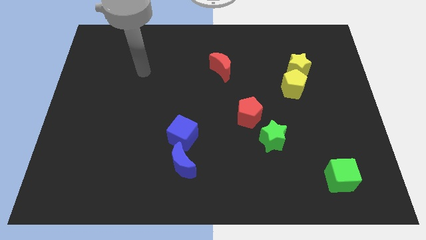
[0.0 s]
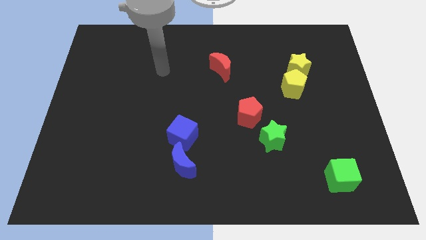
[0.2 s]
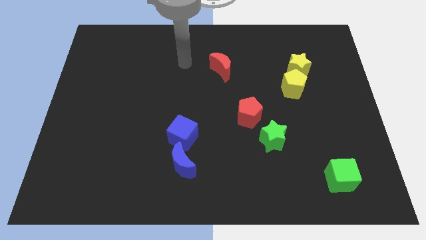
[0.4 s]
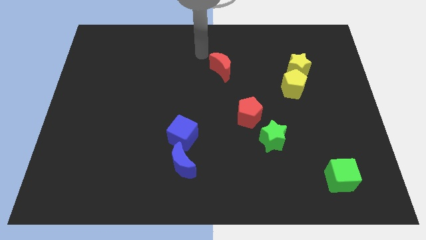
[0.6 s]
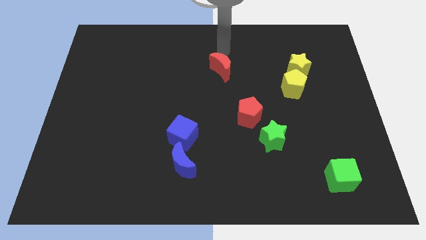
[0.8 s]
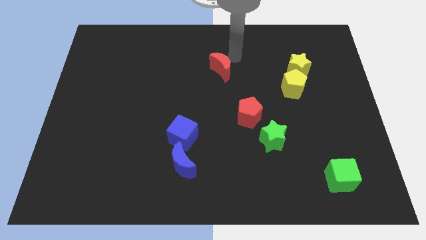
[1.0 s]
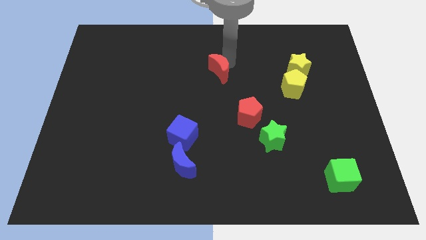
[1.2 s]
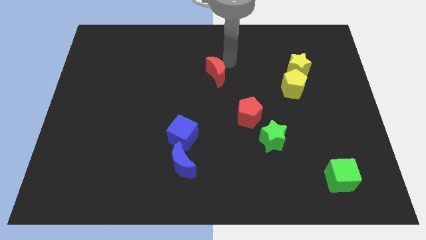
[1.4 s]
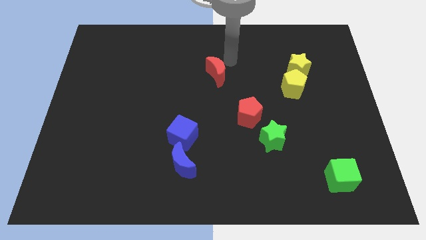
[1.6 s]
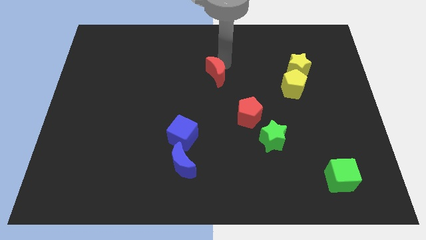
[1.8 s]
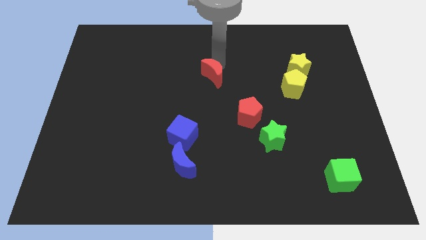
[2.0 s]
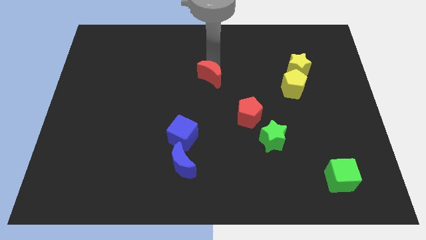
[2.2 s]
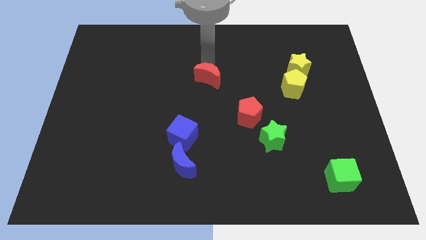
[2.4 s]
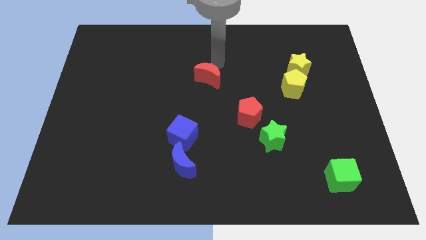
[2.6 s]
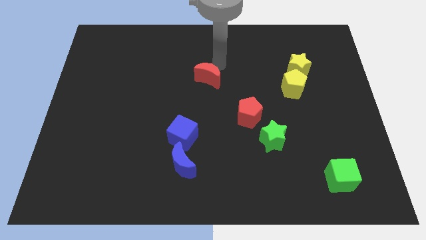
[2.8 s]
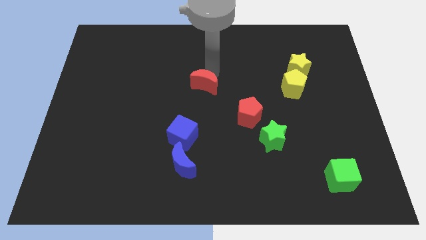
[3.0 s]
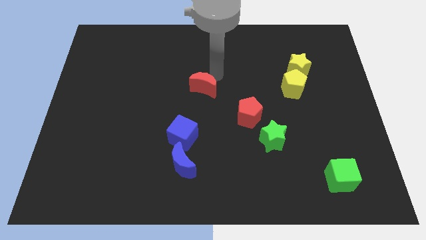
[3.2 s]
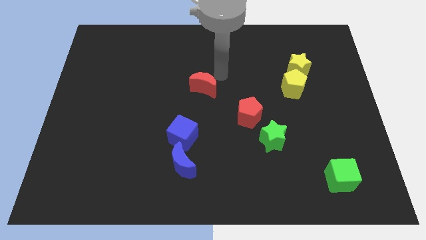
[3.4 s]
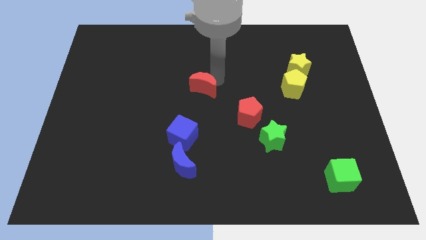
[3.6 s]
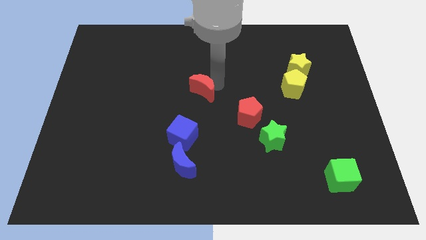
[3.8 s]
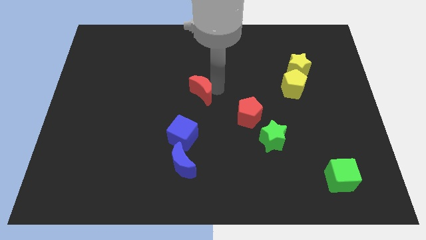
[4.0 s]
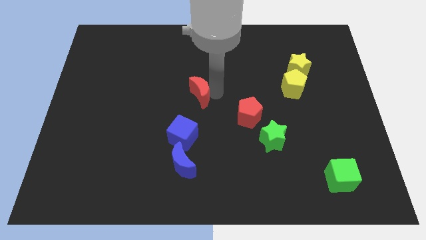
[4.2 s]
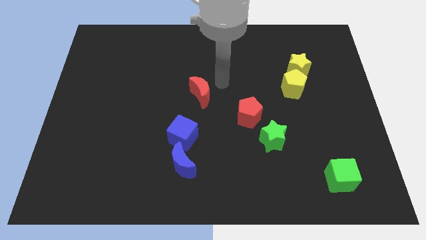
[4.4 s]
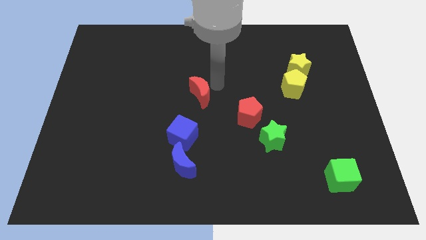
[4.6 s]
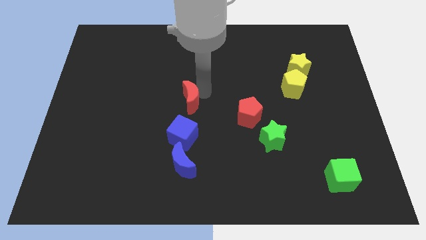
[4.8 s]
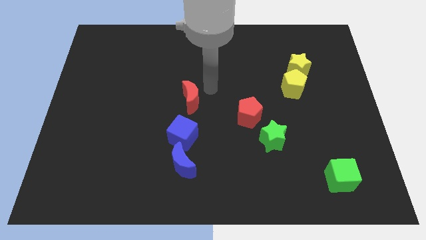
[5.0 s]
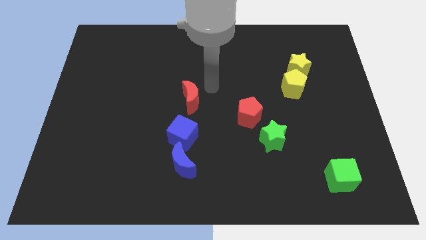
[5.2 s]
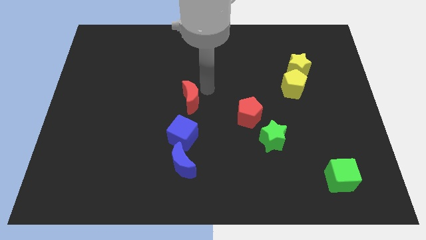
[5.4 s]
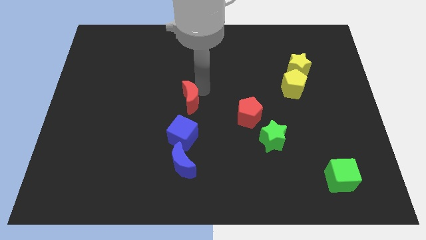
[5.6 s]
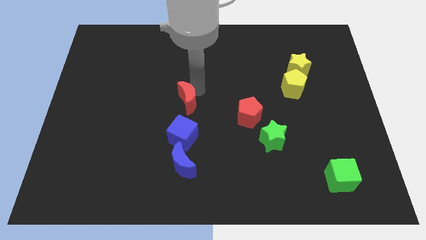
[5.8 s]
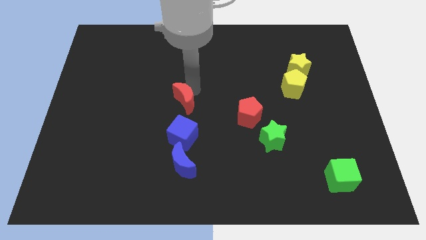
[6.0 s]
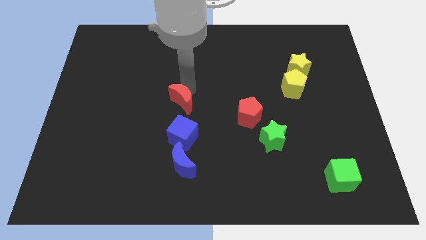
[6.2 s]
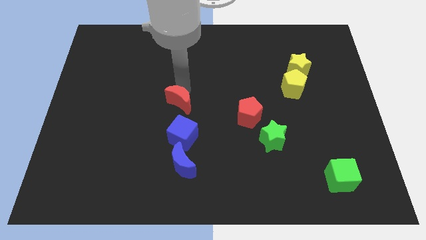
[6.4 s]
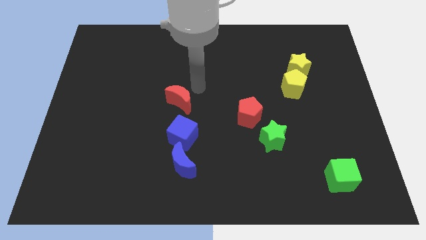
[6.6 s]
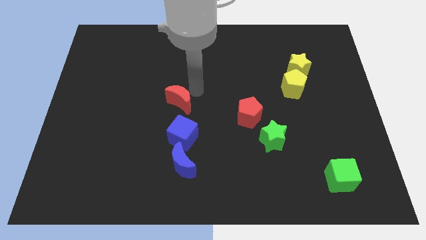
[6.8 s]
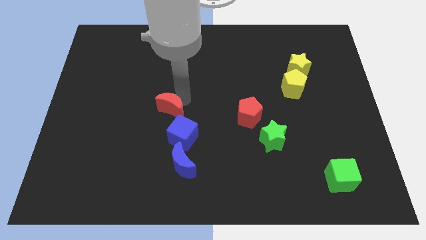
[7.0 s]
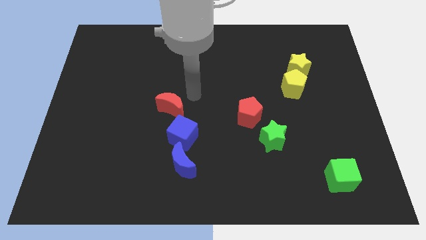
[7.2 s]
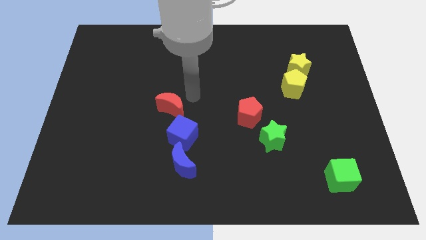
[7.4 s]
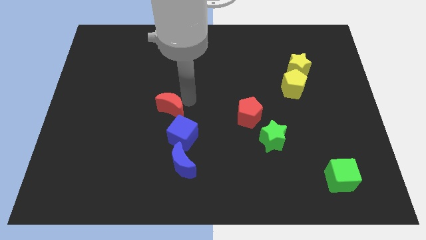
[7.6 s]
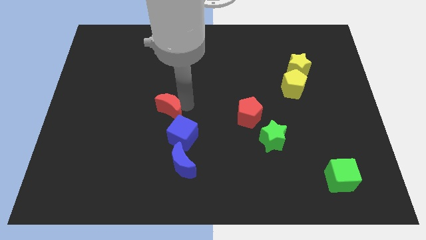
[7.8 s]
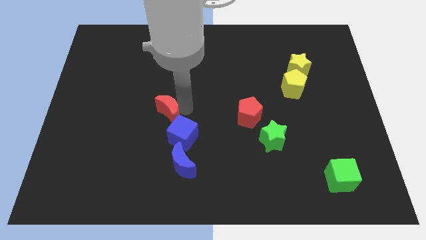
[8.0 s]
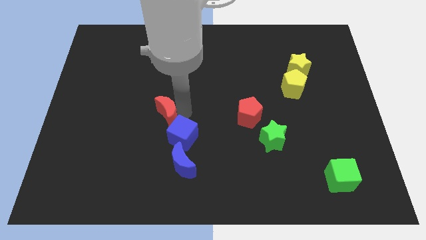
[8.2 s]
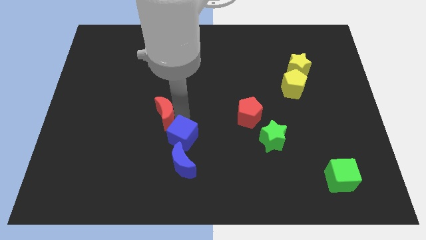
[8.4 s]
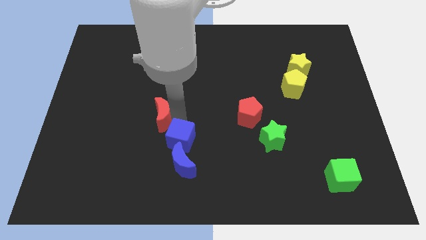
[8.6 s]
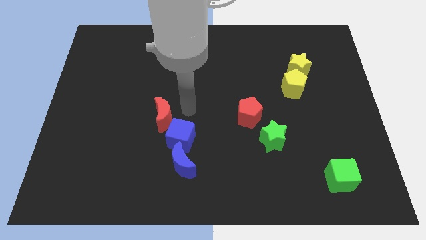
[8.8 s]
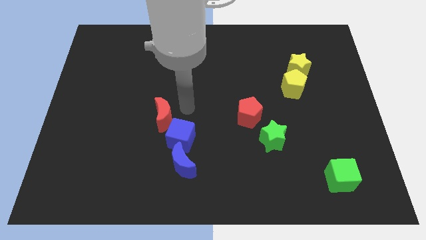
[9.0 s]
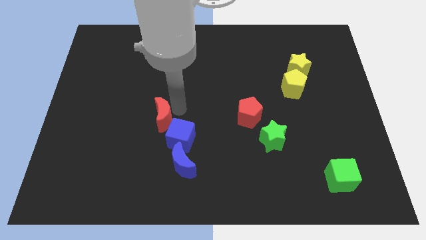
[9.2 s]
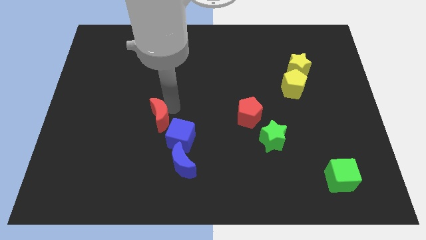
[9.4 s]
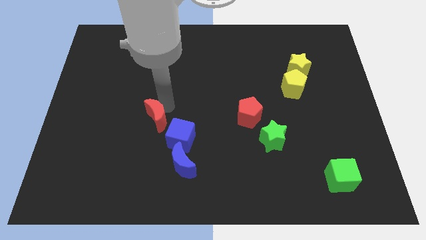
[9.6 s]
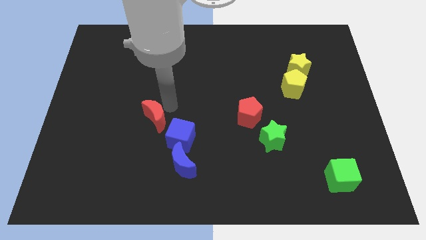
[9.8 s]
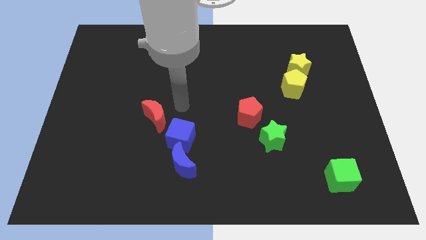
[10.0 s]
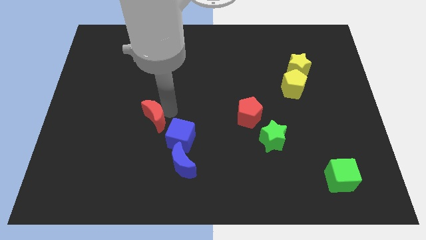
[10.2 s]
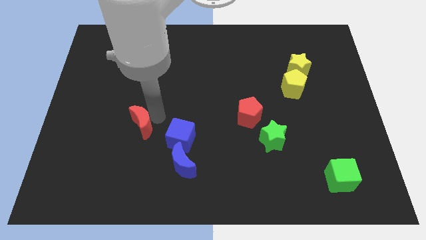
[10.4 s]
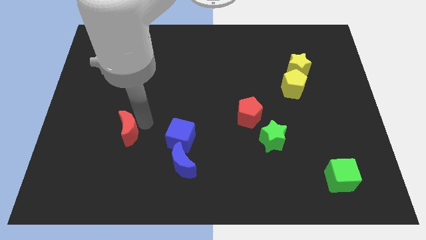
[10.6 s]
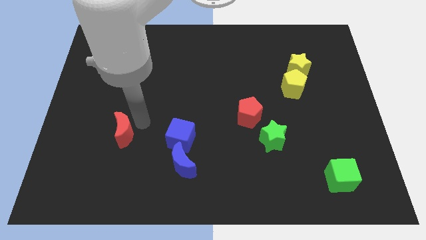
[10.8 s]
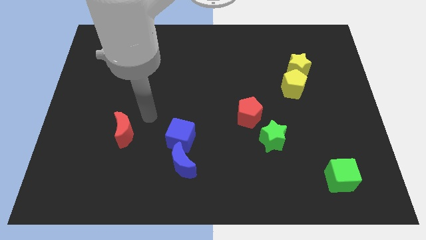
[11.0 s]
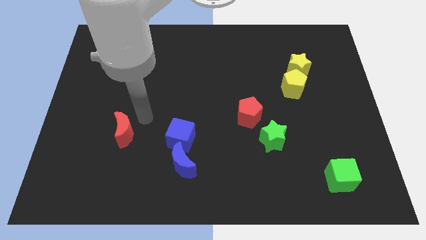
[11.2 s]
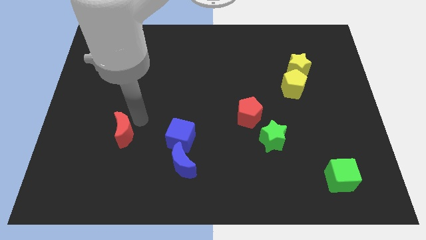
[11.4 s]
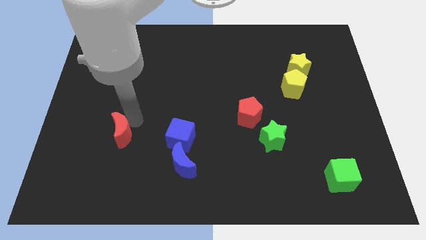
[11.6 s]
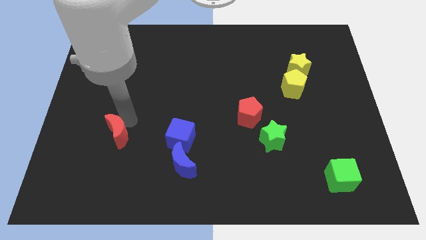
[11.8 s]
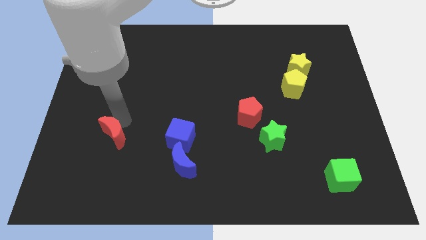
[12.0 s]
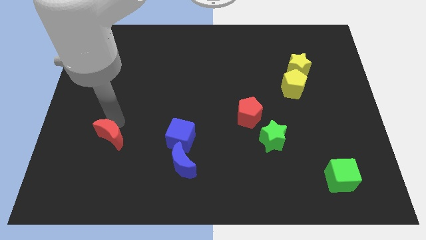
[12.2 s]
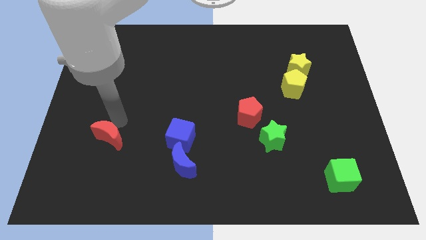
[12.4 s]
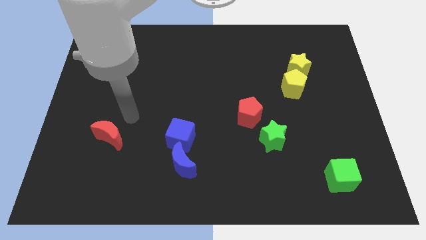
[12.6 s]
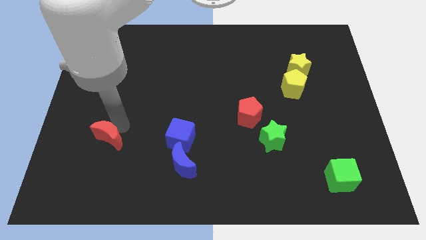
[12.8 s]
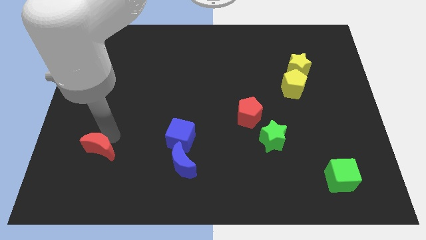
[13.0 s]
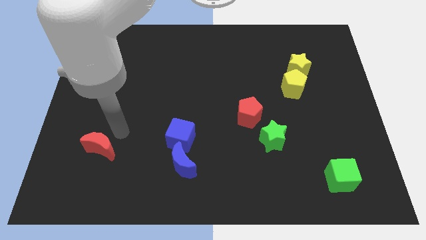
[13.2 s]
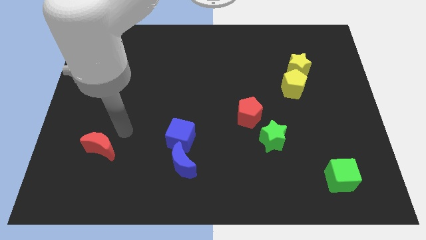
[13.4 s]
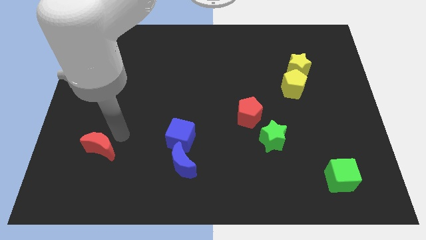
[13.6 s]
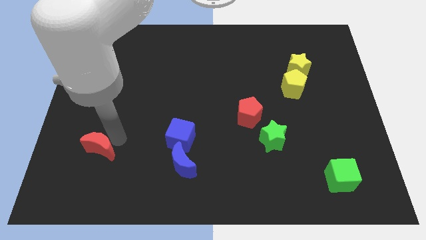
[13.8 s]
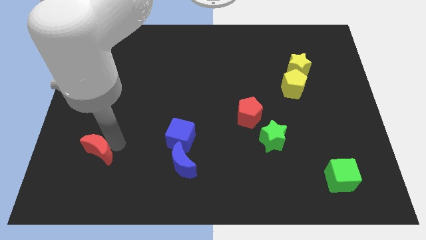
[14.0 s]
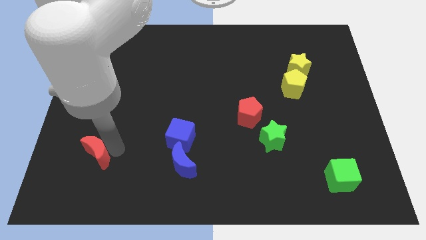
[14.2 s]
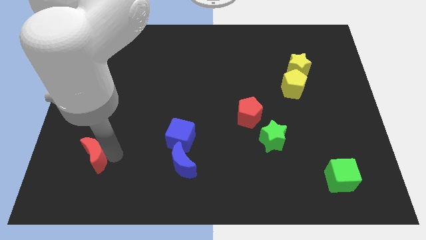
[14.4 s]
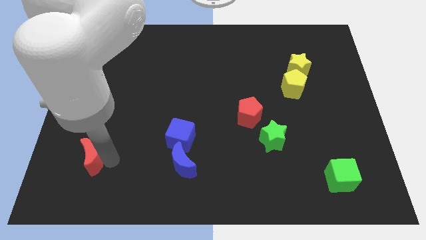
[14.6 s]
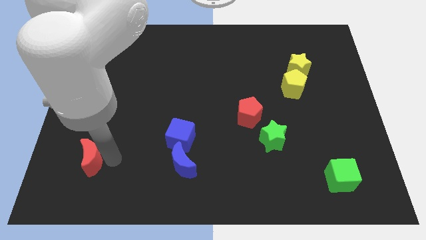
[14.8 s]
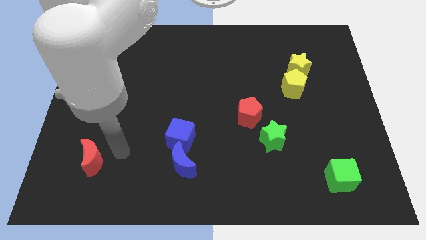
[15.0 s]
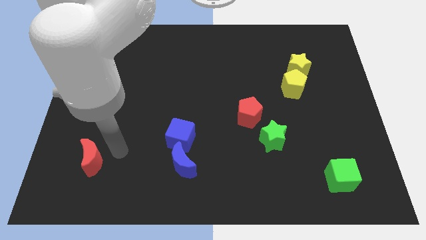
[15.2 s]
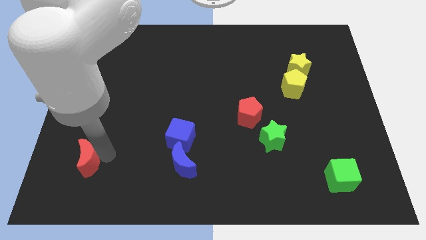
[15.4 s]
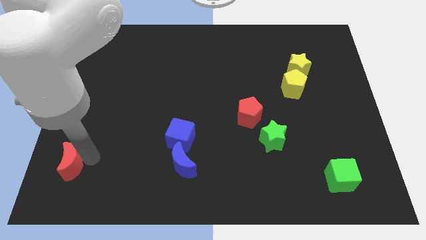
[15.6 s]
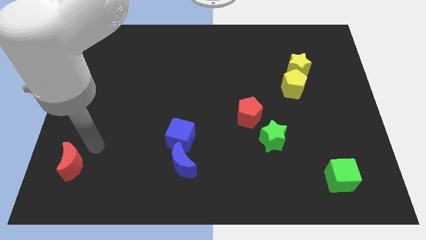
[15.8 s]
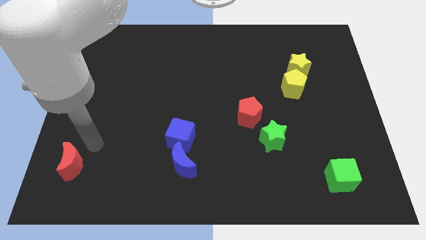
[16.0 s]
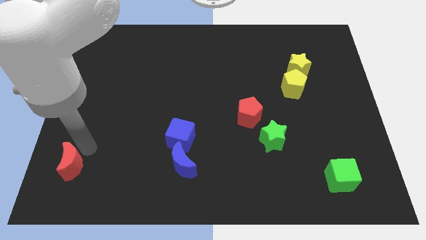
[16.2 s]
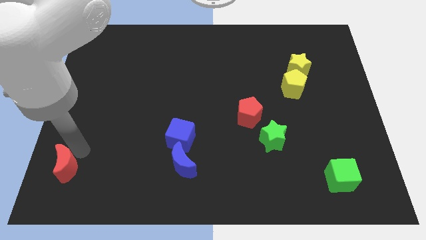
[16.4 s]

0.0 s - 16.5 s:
move the red moon to the bottom left of the board
